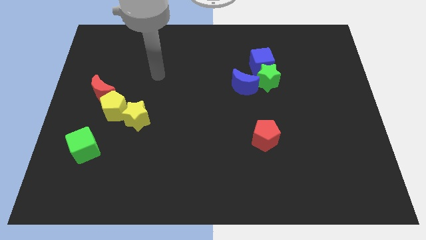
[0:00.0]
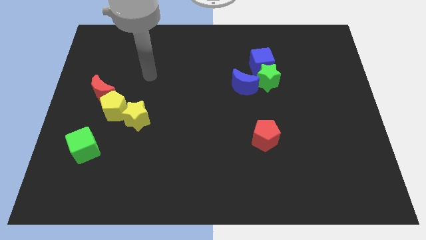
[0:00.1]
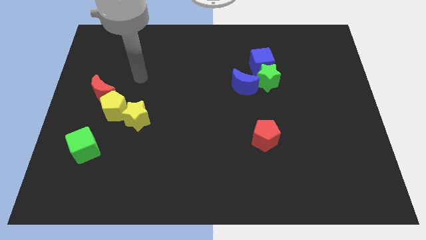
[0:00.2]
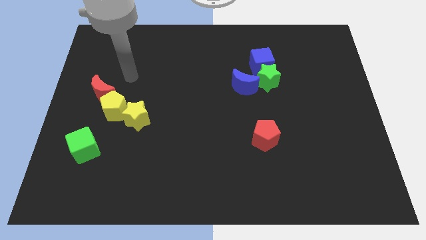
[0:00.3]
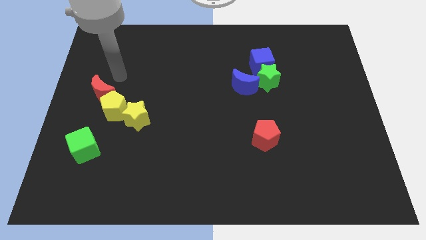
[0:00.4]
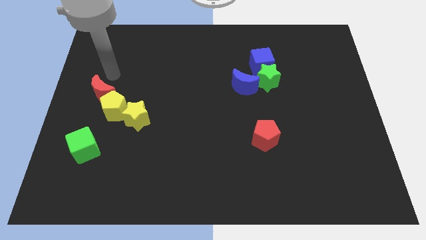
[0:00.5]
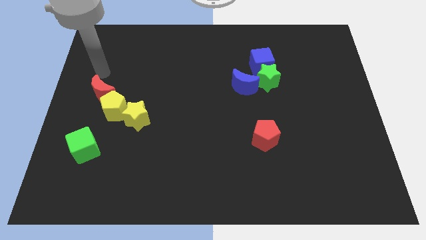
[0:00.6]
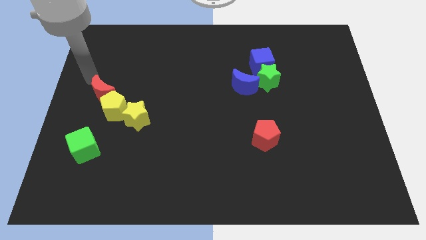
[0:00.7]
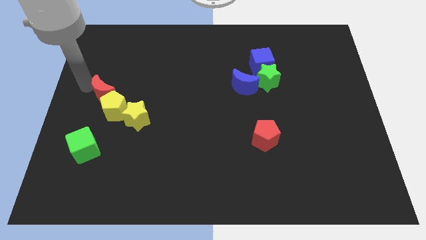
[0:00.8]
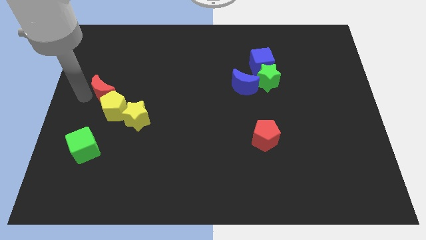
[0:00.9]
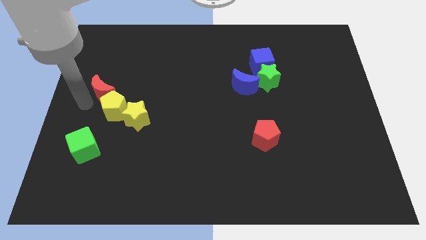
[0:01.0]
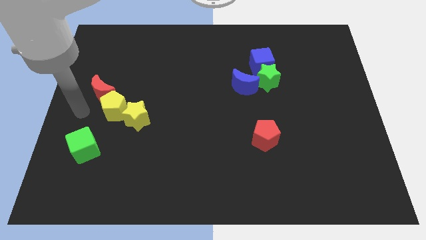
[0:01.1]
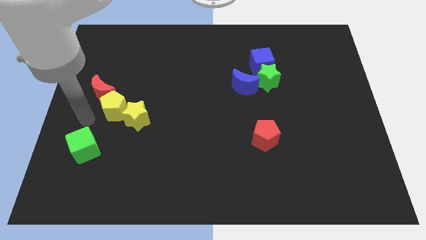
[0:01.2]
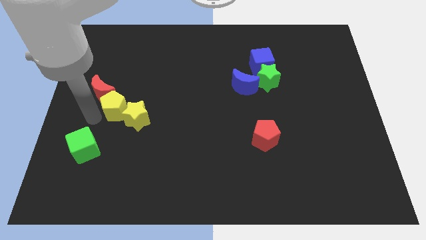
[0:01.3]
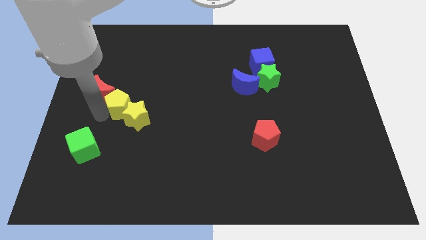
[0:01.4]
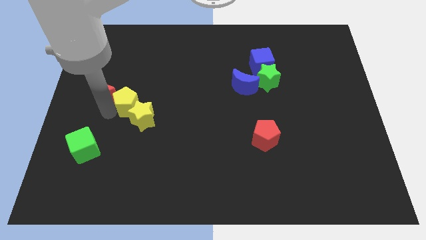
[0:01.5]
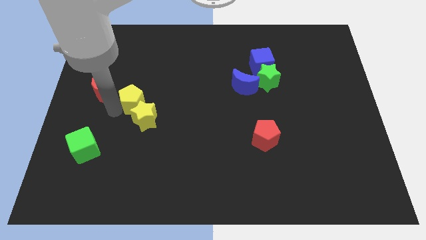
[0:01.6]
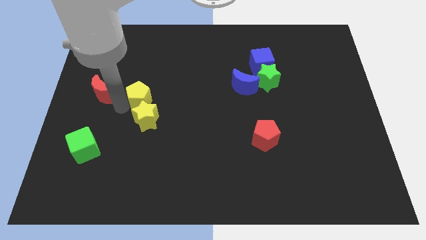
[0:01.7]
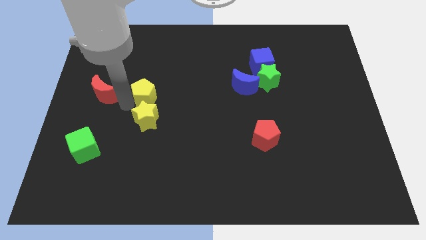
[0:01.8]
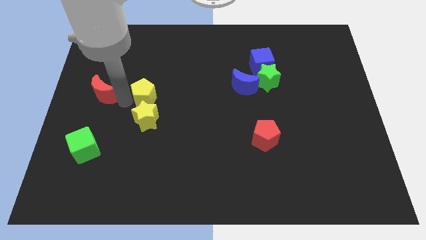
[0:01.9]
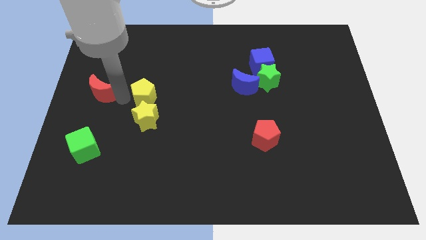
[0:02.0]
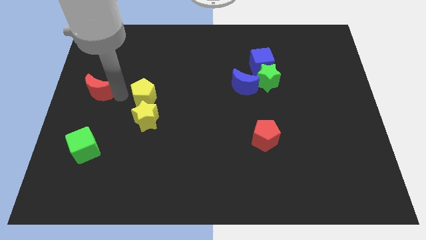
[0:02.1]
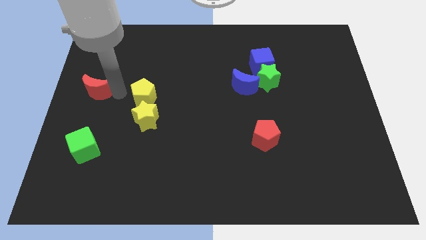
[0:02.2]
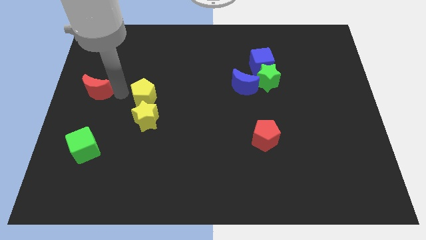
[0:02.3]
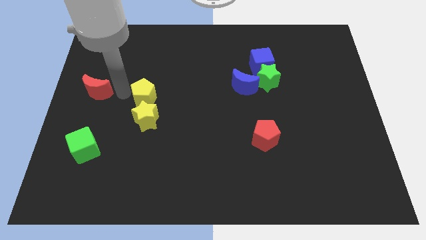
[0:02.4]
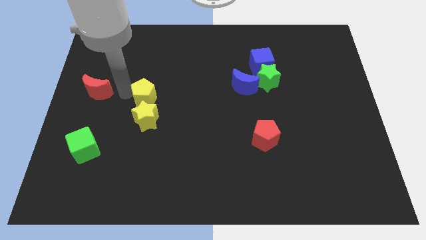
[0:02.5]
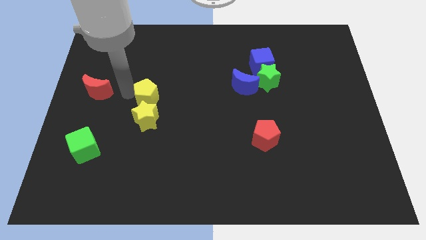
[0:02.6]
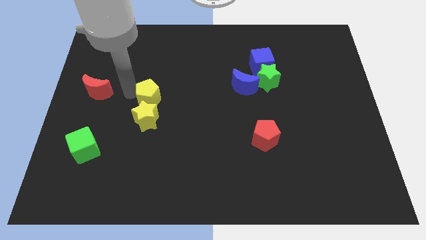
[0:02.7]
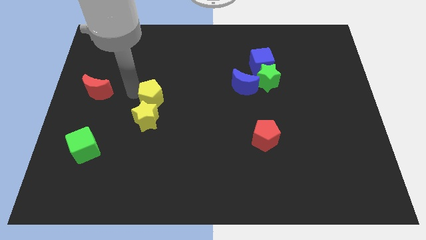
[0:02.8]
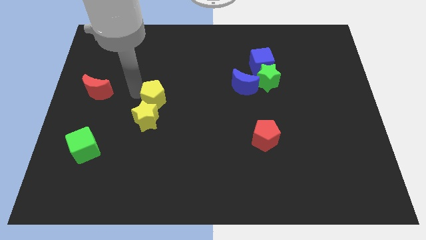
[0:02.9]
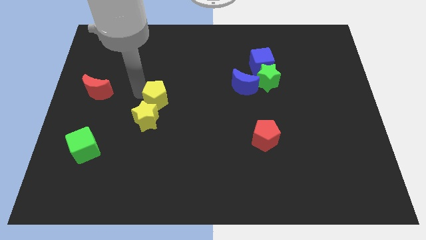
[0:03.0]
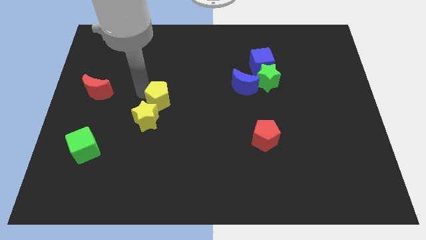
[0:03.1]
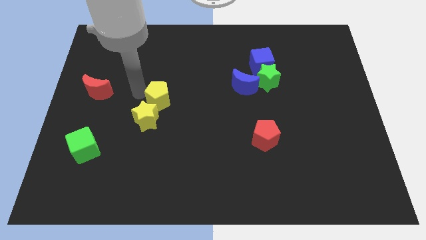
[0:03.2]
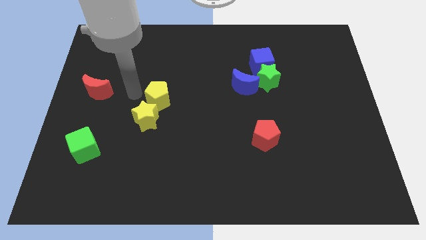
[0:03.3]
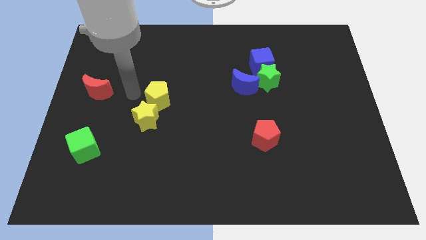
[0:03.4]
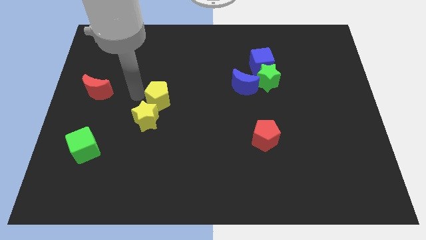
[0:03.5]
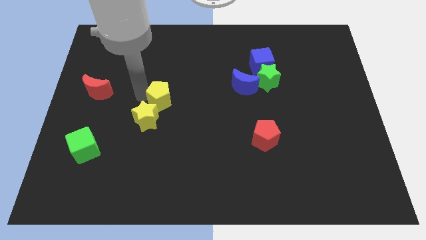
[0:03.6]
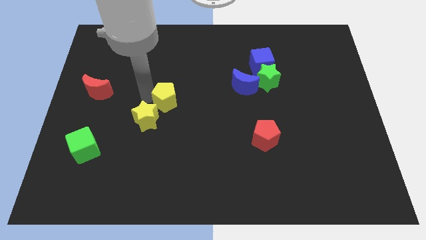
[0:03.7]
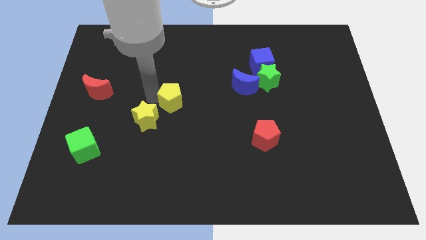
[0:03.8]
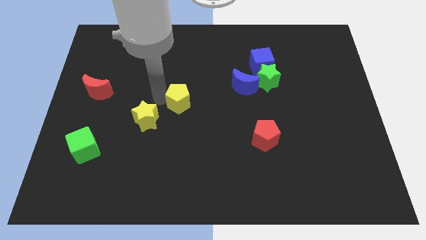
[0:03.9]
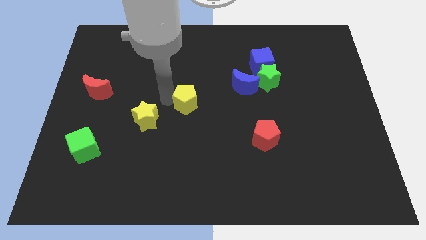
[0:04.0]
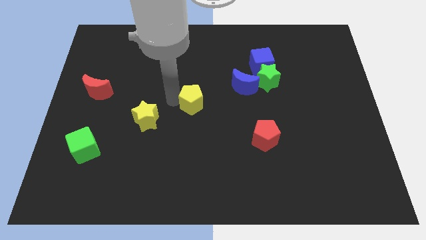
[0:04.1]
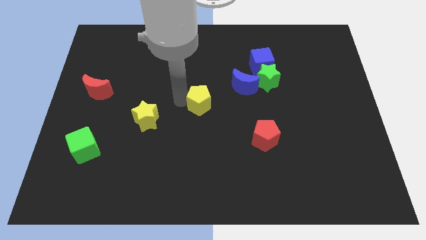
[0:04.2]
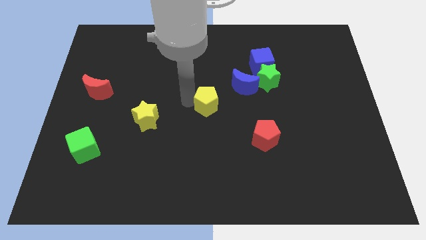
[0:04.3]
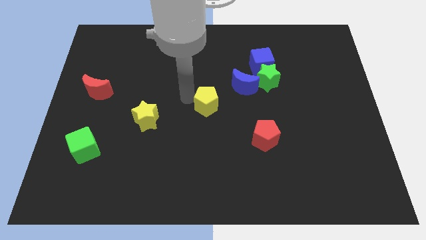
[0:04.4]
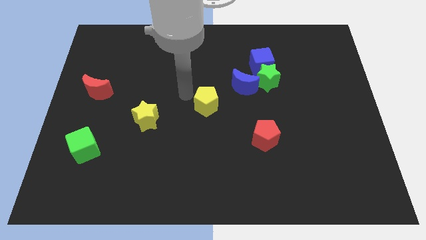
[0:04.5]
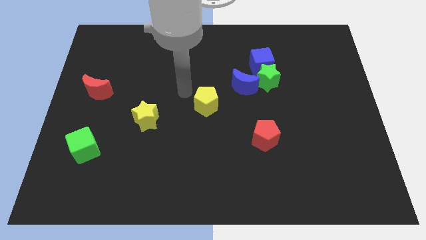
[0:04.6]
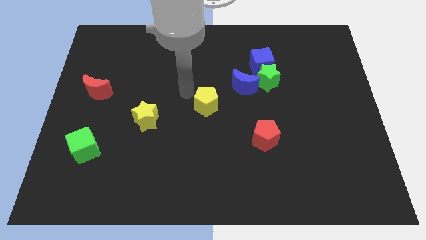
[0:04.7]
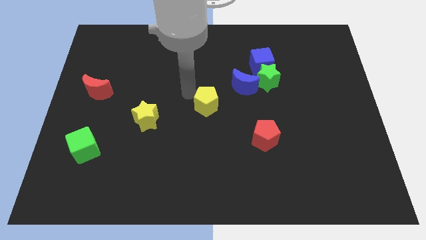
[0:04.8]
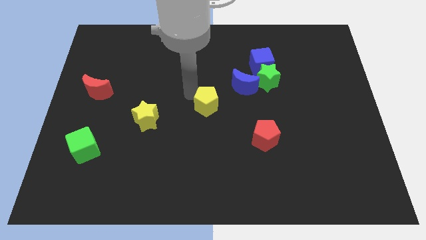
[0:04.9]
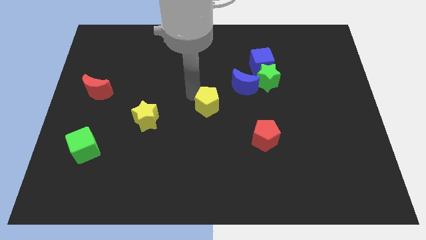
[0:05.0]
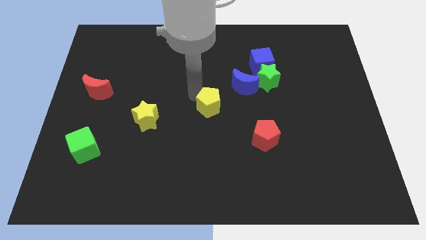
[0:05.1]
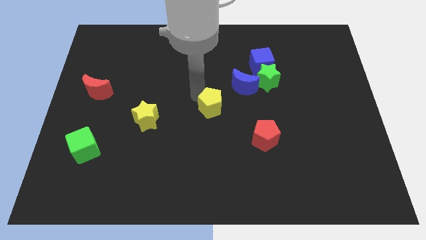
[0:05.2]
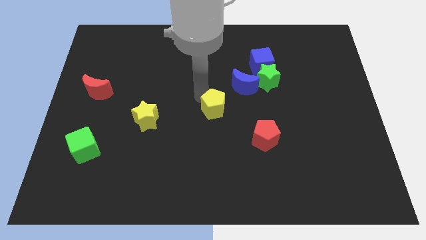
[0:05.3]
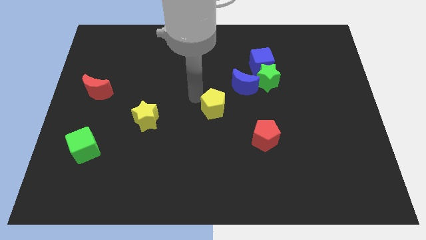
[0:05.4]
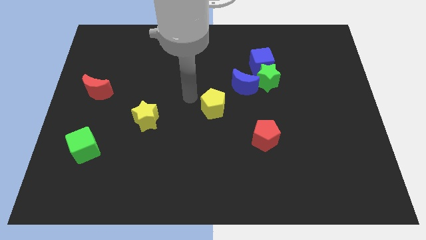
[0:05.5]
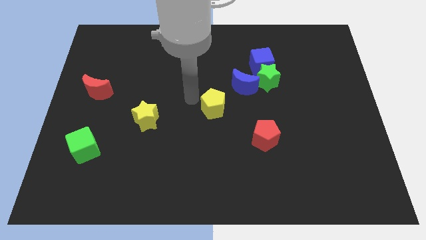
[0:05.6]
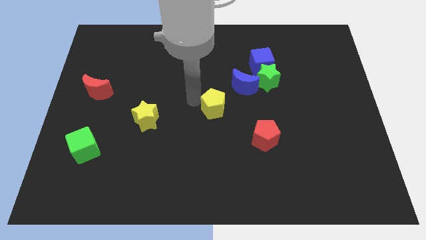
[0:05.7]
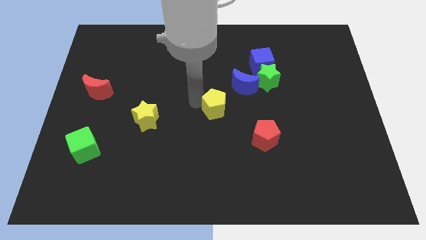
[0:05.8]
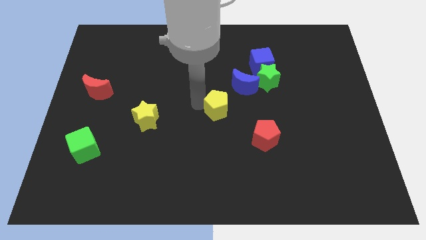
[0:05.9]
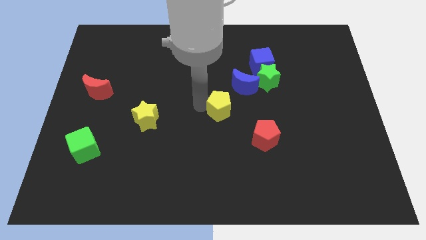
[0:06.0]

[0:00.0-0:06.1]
slide the yellow pentagon diagonally up and to the left of the red pentagon

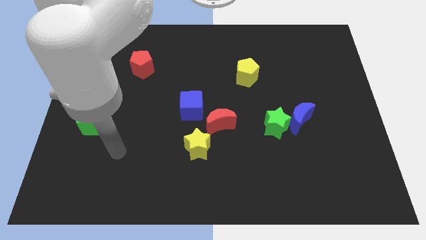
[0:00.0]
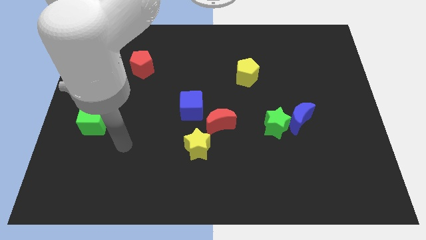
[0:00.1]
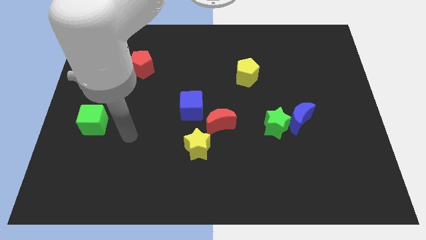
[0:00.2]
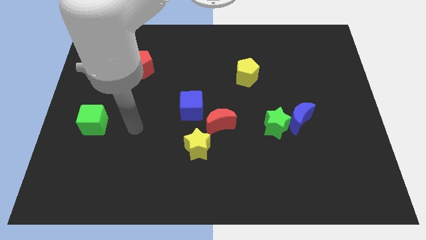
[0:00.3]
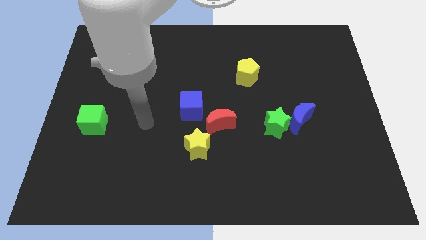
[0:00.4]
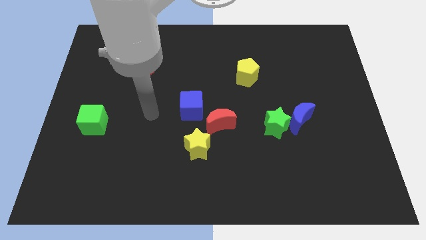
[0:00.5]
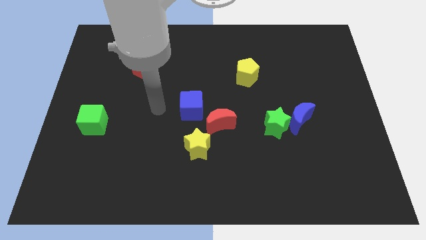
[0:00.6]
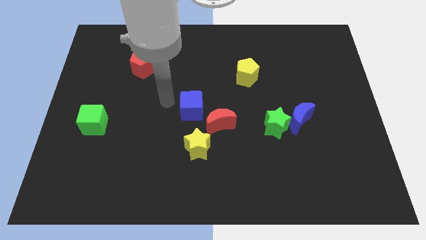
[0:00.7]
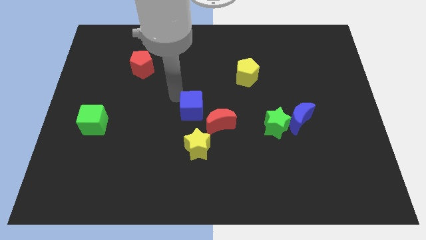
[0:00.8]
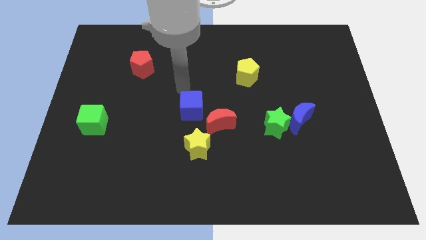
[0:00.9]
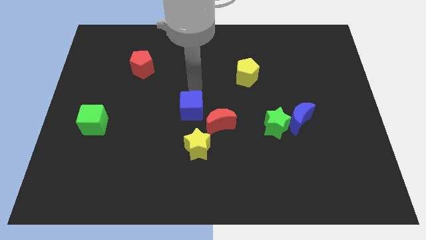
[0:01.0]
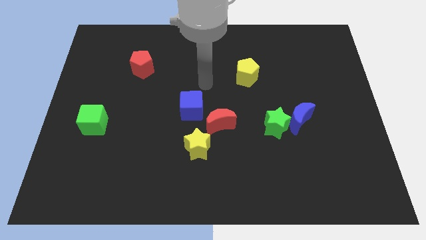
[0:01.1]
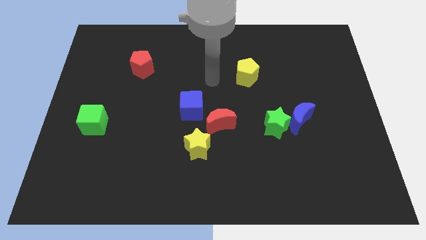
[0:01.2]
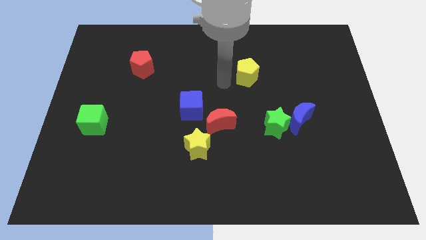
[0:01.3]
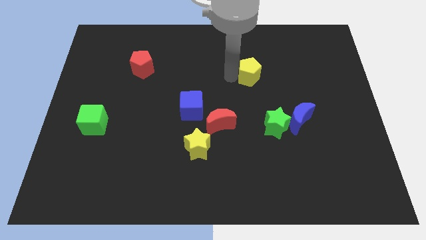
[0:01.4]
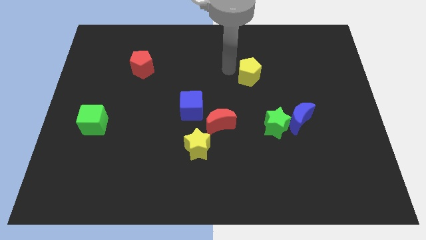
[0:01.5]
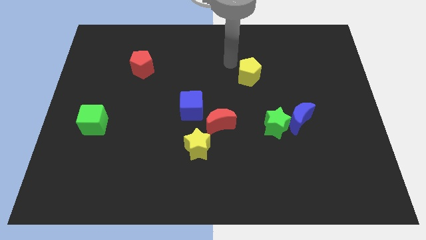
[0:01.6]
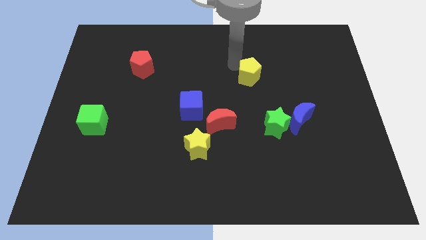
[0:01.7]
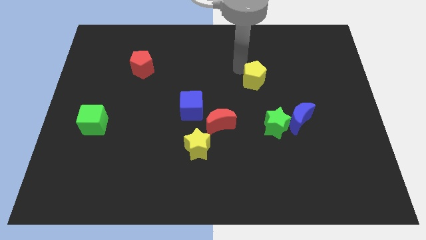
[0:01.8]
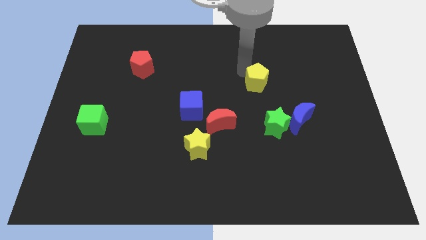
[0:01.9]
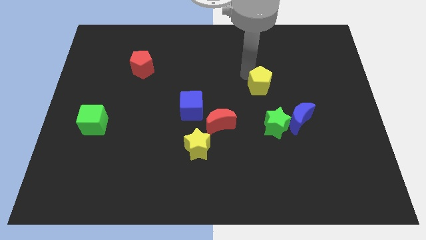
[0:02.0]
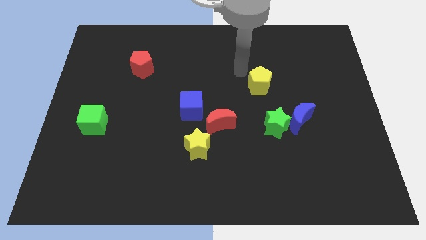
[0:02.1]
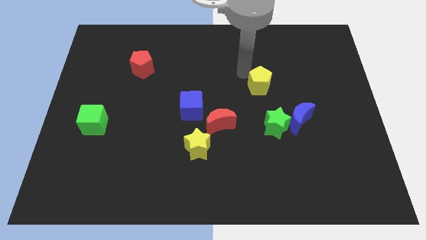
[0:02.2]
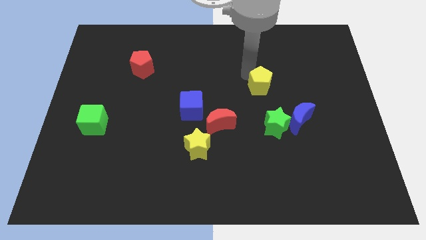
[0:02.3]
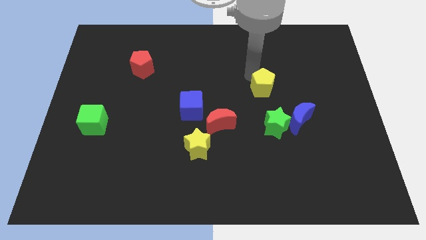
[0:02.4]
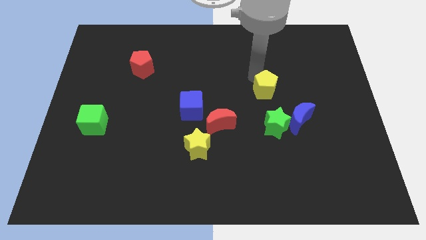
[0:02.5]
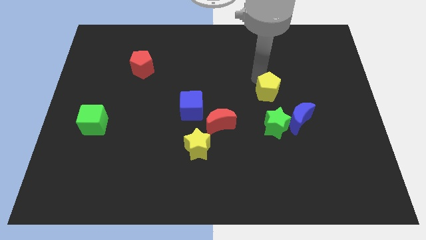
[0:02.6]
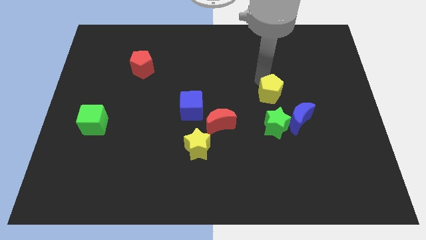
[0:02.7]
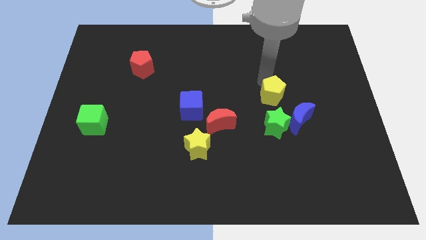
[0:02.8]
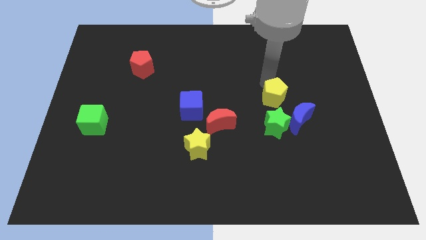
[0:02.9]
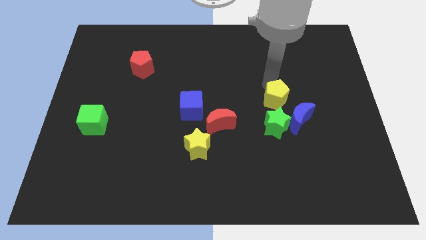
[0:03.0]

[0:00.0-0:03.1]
slide the yellow pentagon diagonally up and to the right of the green star
